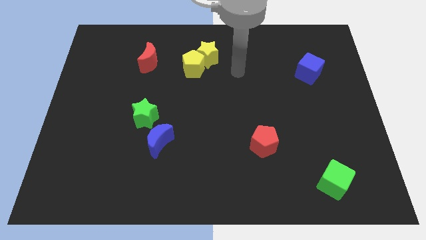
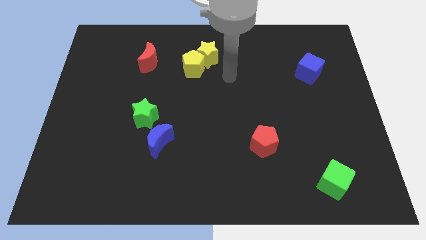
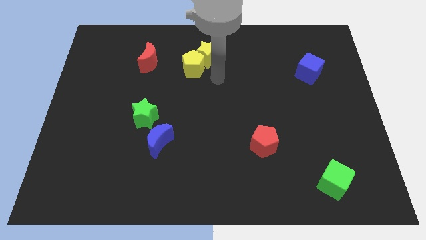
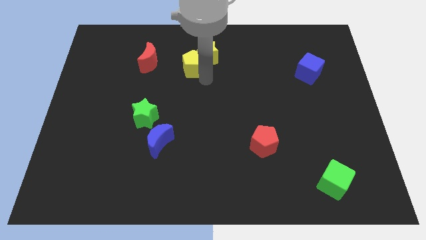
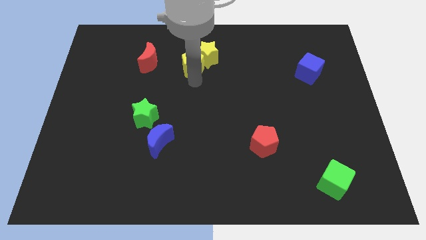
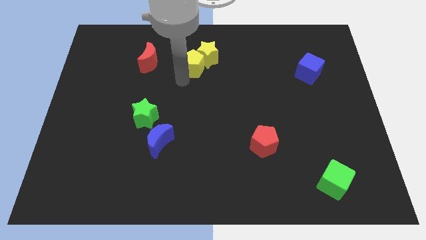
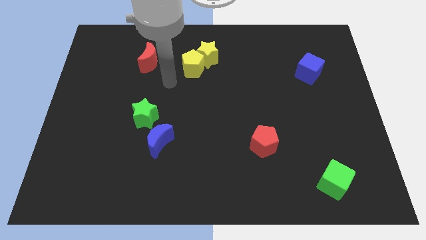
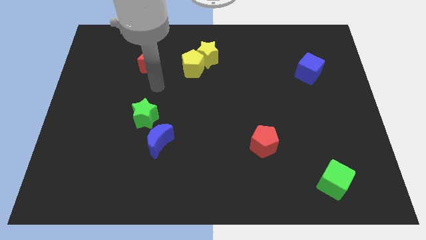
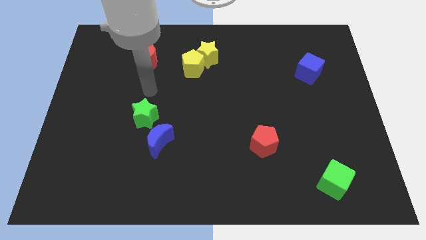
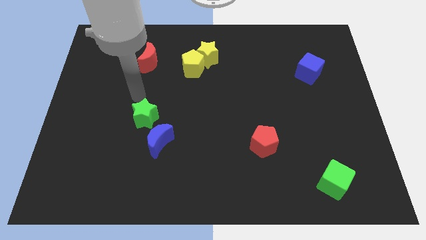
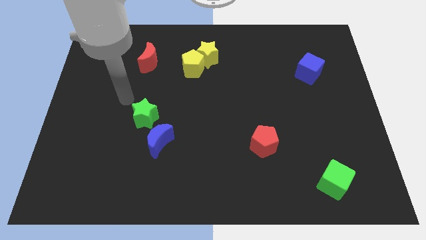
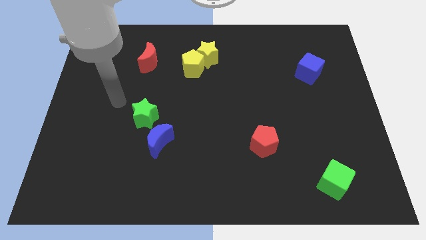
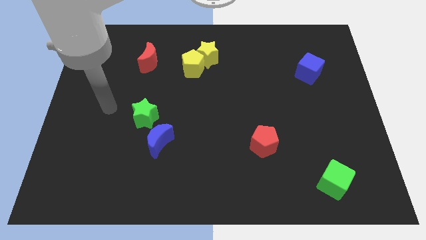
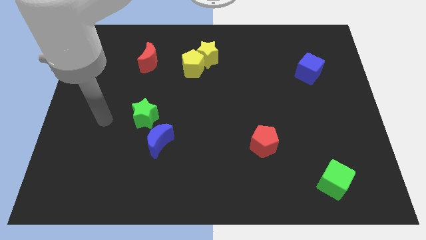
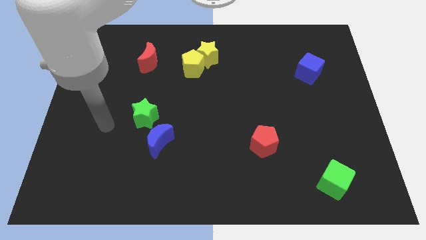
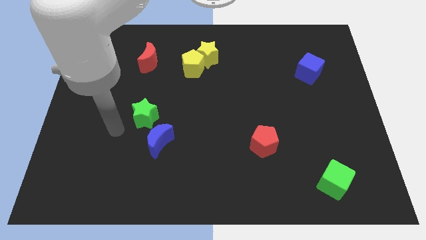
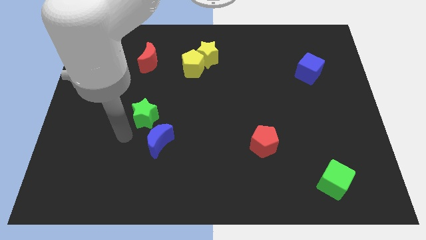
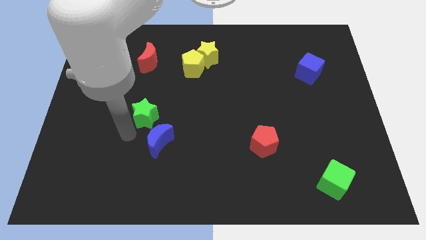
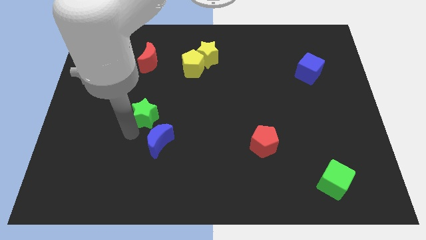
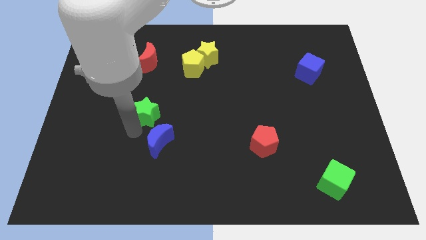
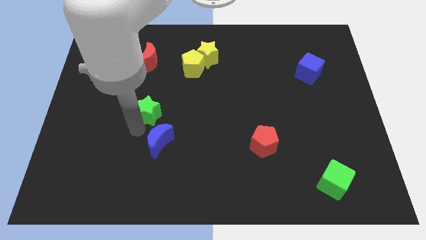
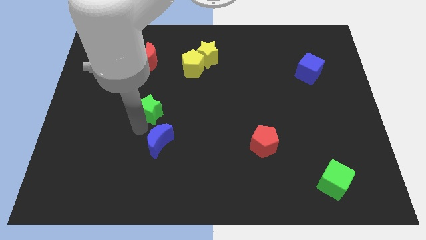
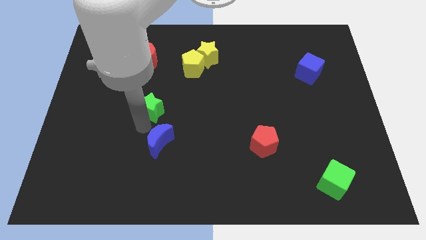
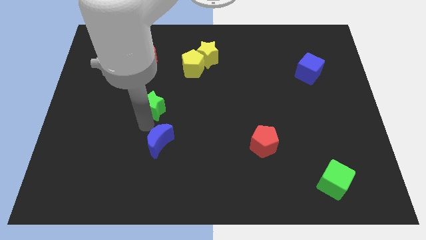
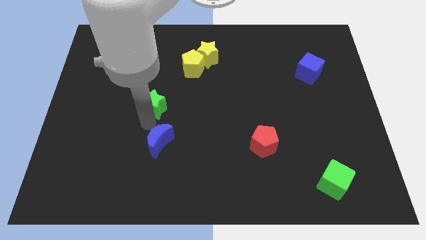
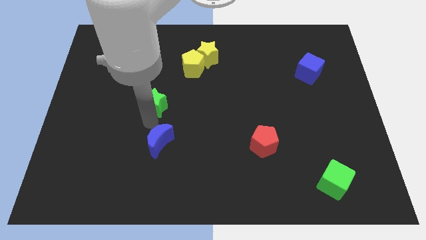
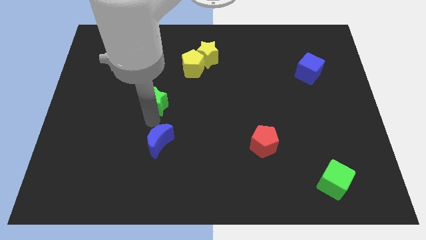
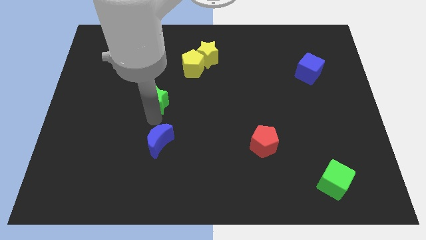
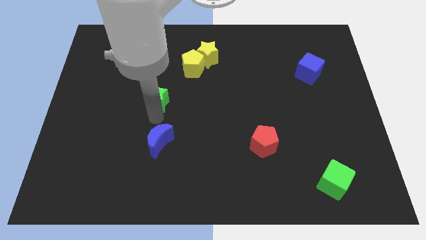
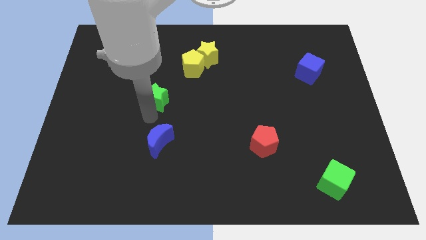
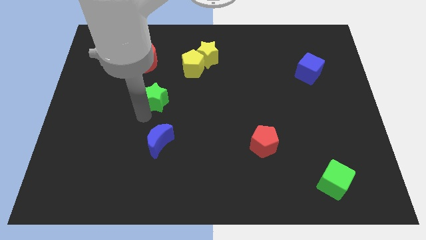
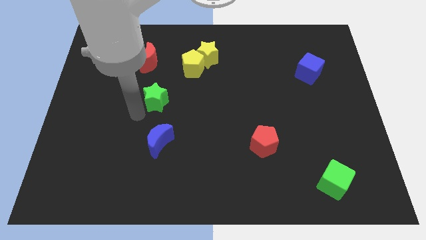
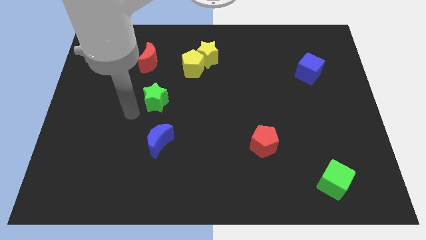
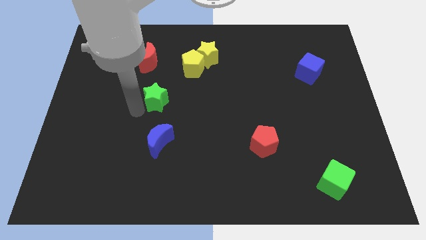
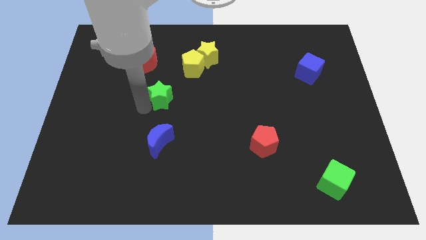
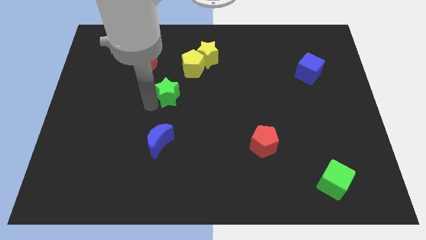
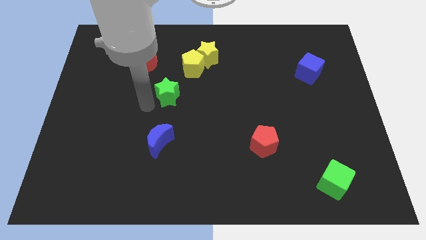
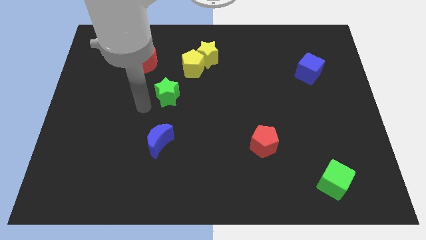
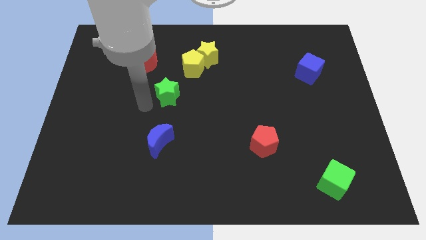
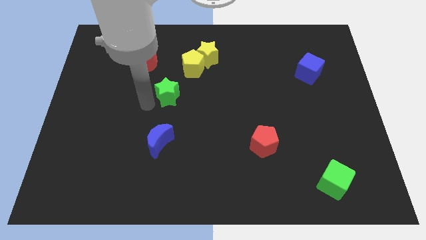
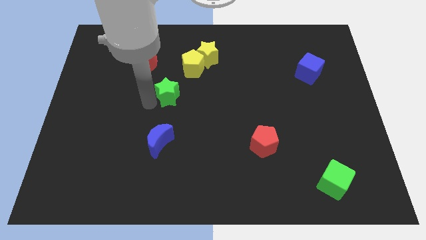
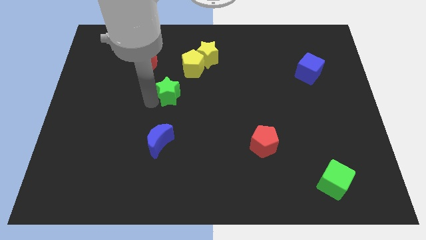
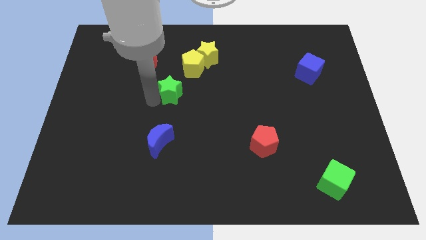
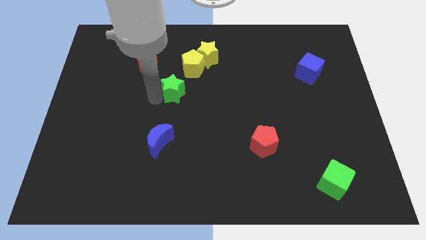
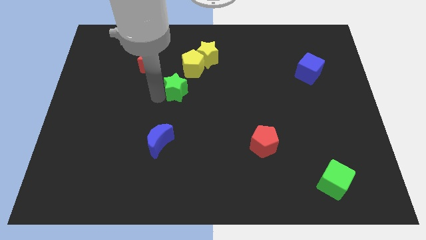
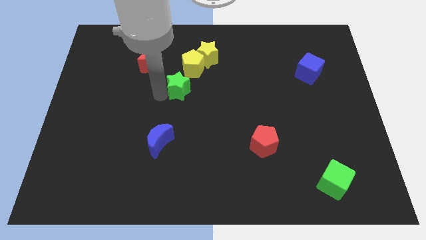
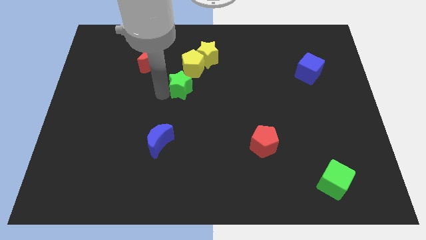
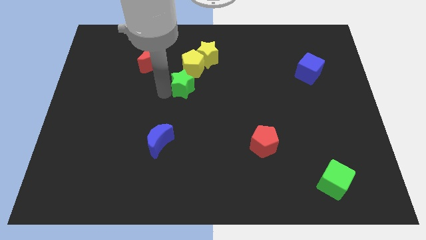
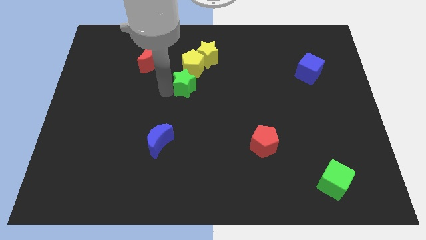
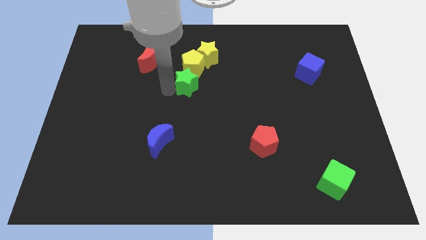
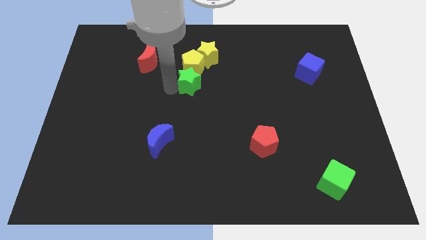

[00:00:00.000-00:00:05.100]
slide the green star diagonally down and to the right of the yellow pentagon

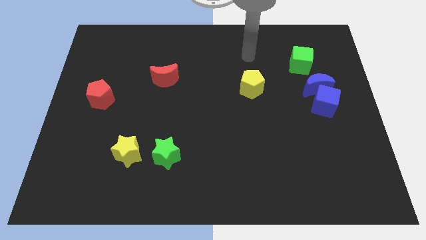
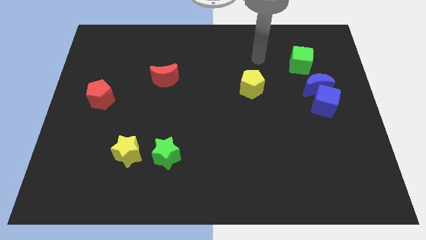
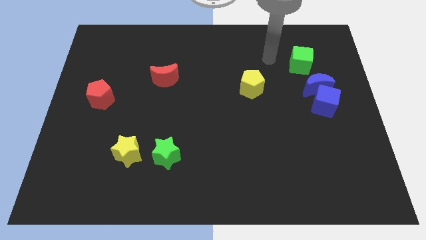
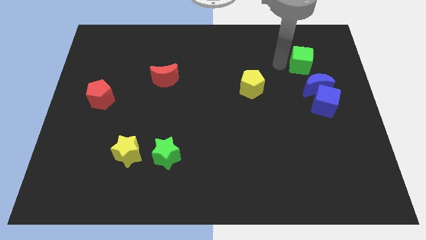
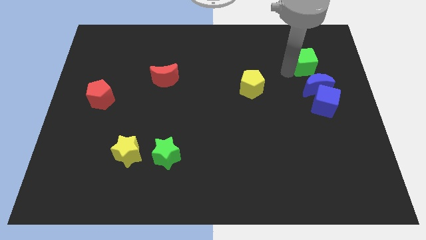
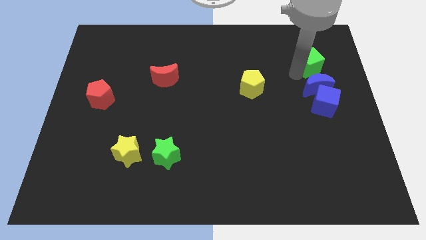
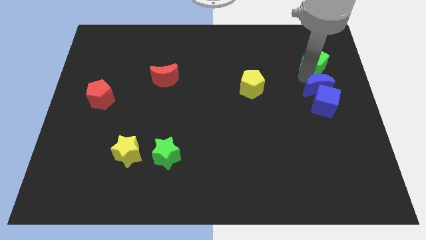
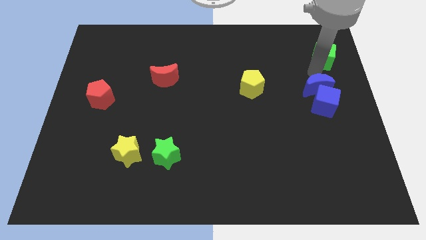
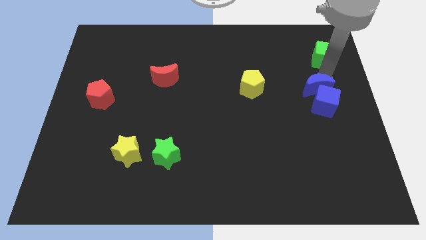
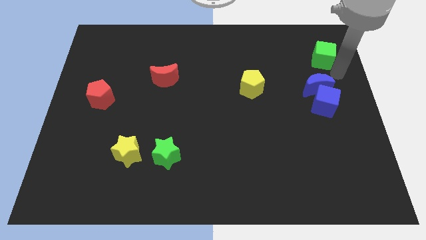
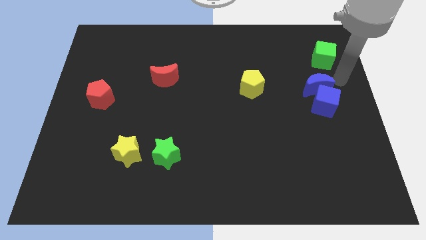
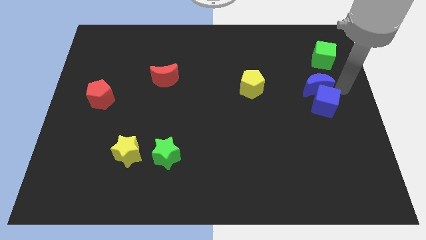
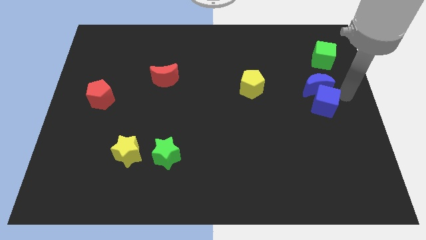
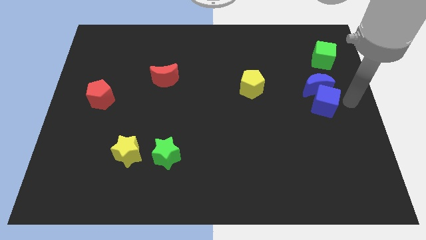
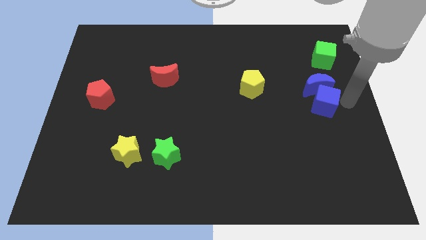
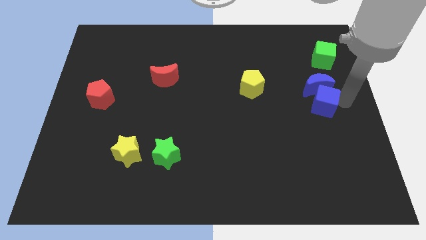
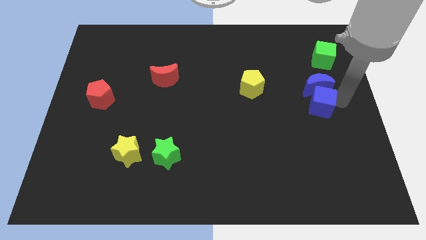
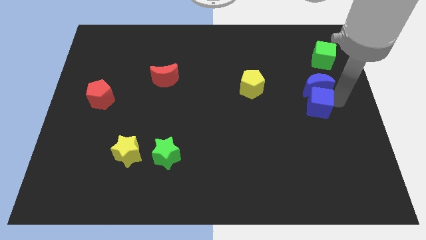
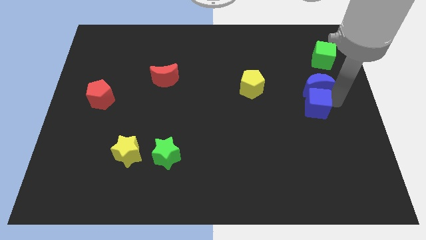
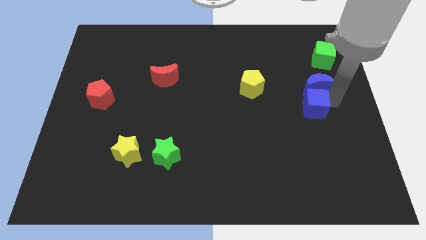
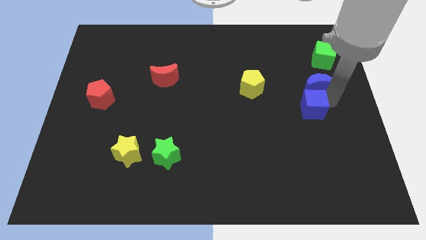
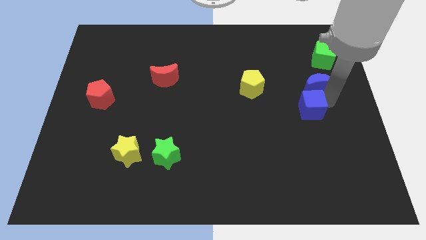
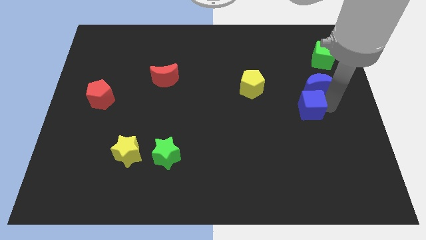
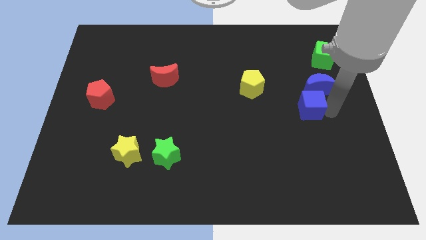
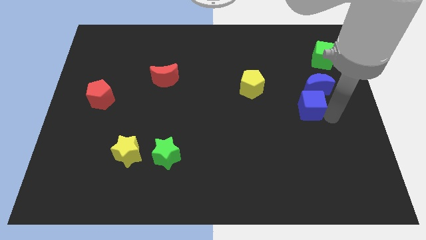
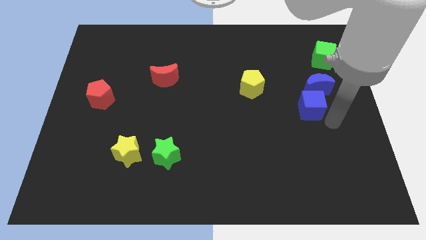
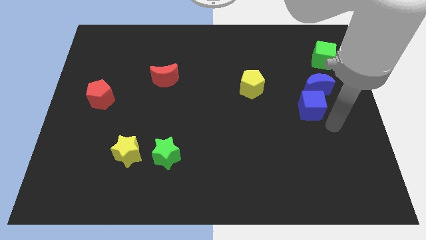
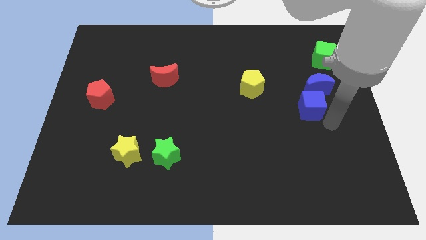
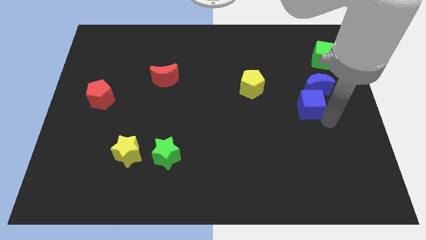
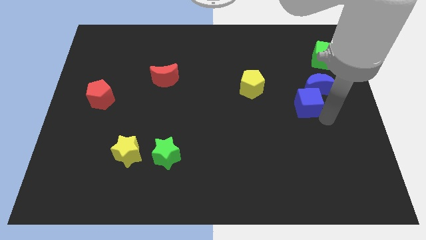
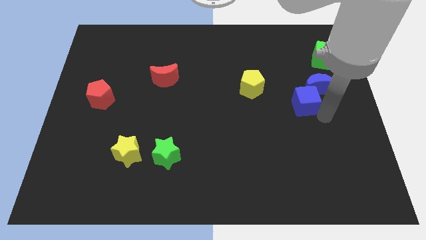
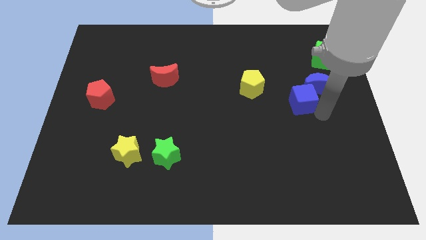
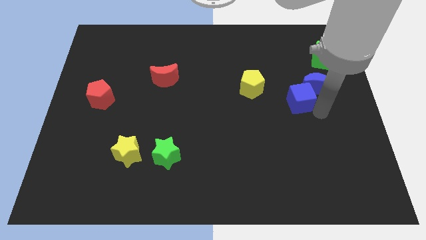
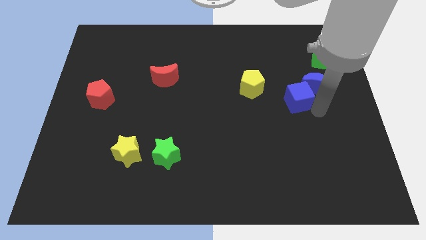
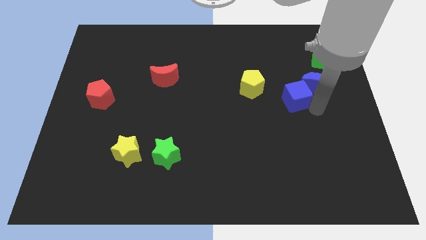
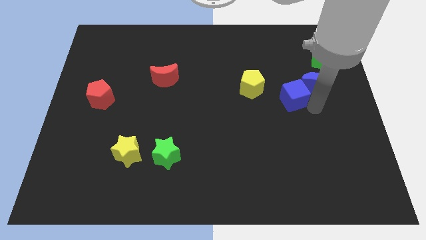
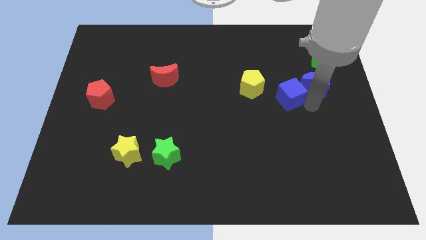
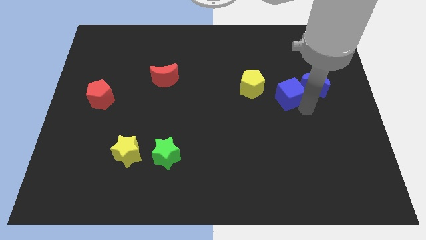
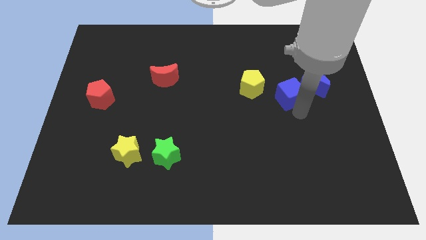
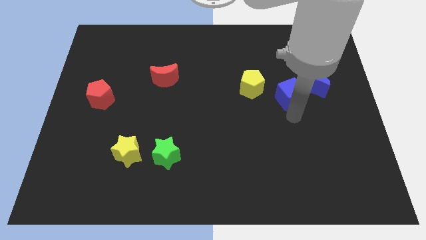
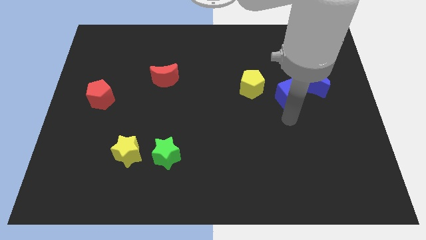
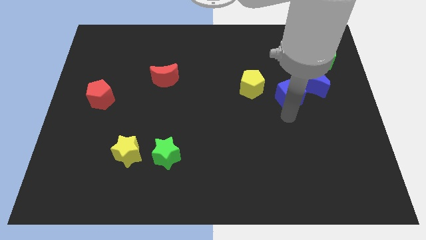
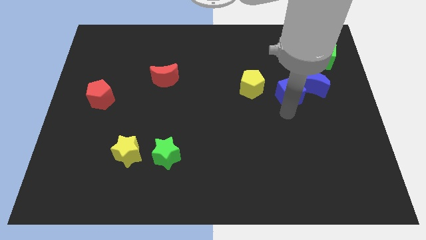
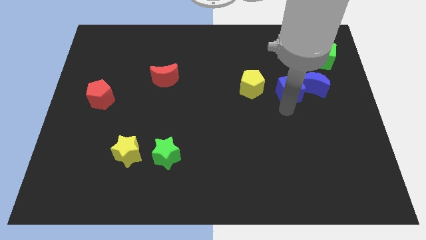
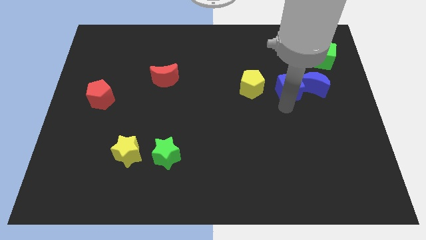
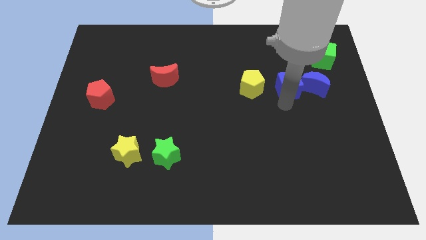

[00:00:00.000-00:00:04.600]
move the blue cube to the top left side of the blue moon
